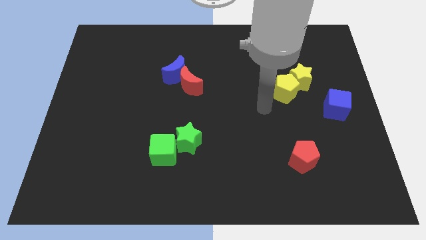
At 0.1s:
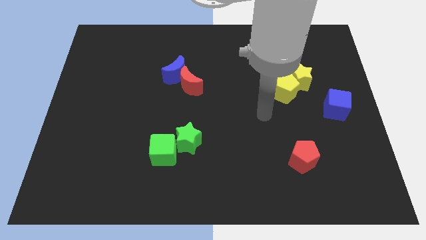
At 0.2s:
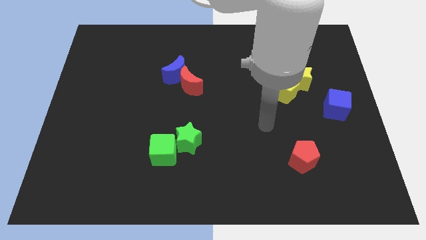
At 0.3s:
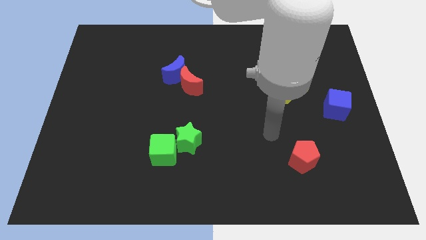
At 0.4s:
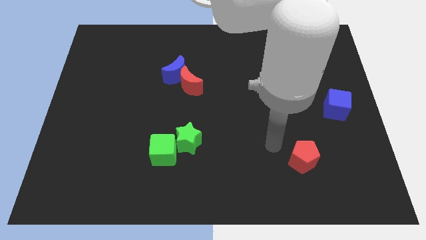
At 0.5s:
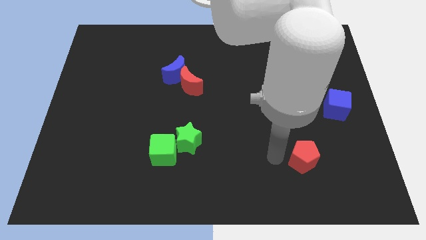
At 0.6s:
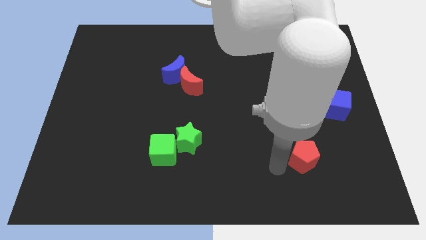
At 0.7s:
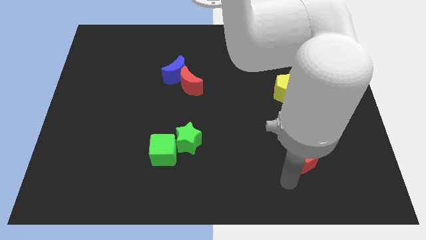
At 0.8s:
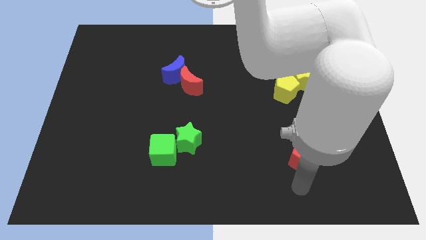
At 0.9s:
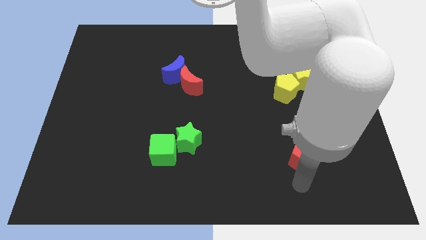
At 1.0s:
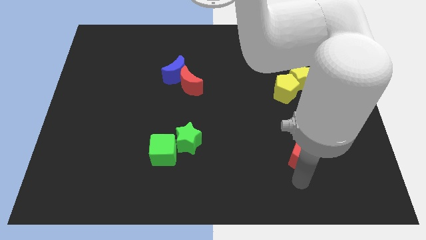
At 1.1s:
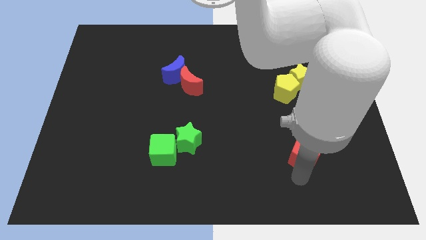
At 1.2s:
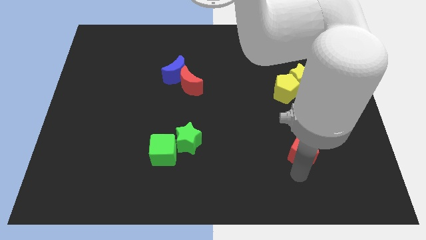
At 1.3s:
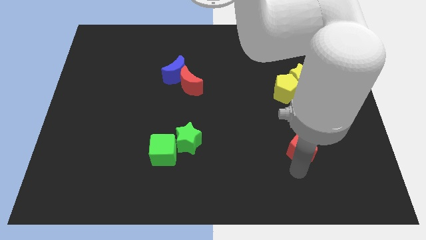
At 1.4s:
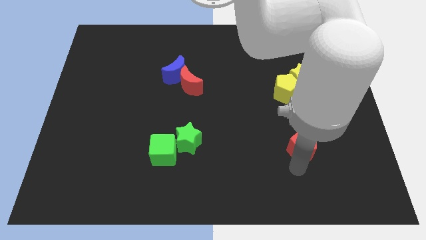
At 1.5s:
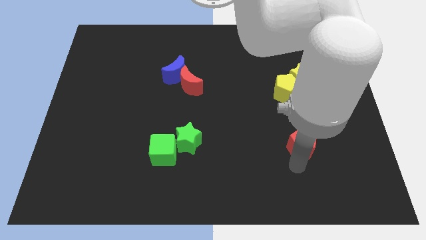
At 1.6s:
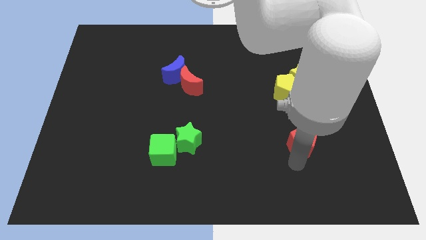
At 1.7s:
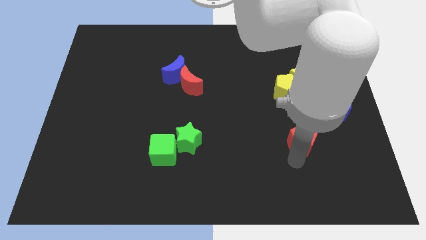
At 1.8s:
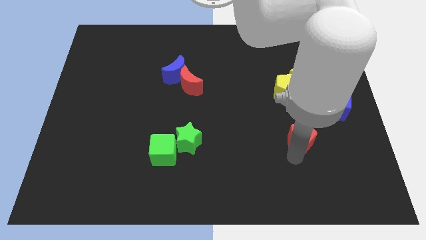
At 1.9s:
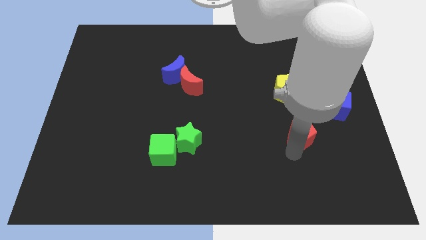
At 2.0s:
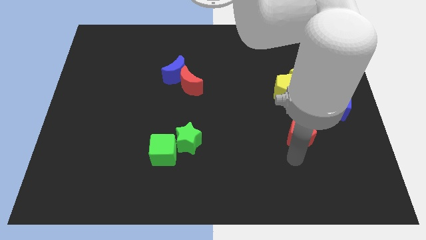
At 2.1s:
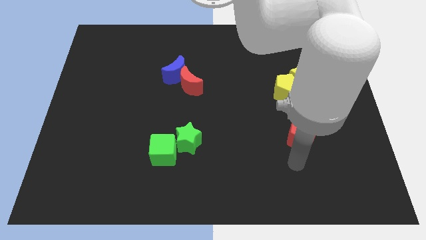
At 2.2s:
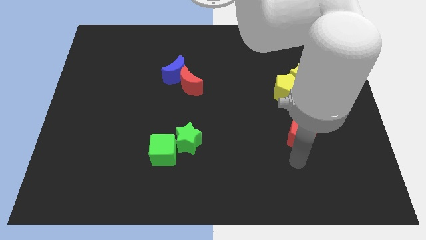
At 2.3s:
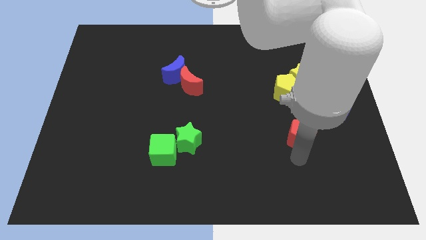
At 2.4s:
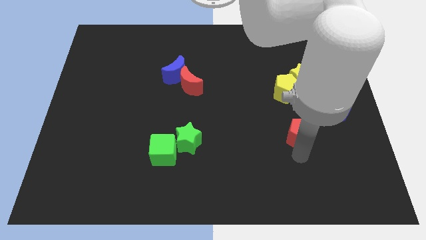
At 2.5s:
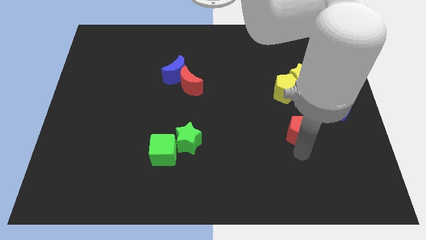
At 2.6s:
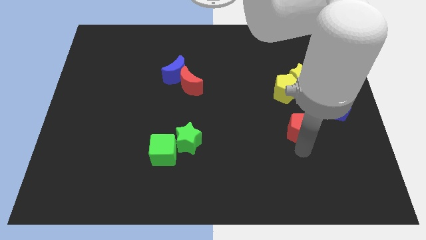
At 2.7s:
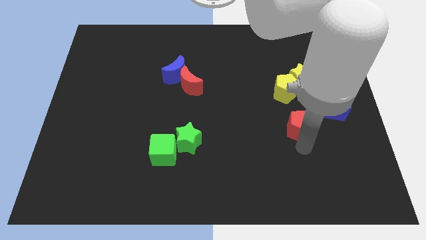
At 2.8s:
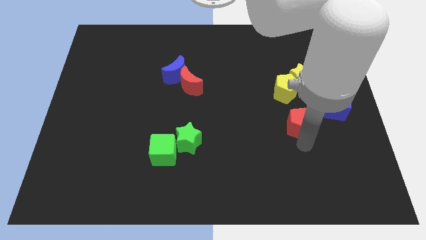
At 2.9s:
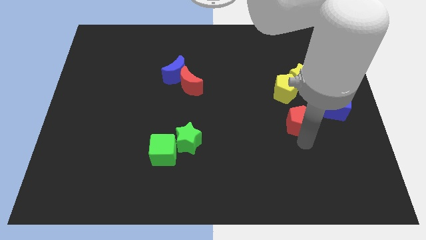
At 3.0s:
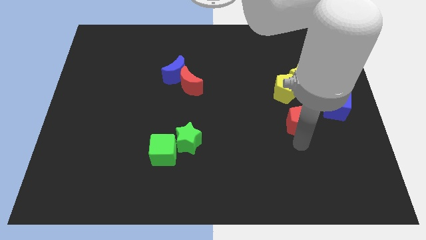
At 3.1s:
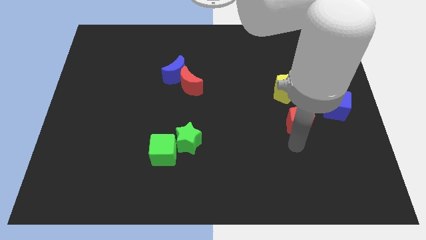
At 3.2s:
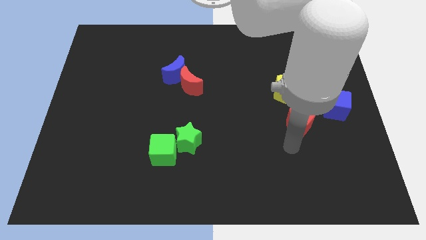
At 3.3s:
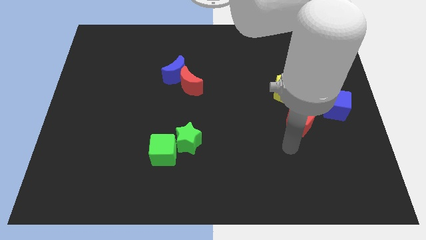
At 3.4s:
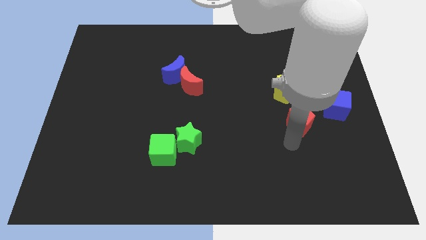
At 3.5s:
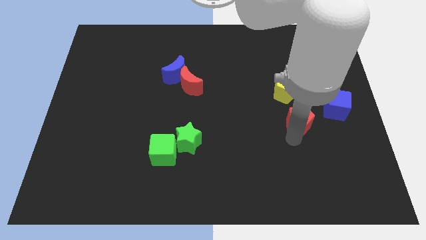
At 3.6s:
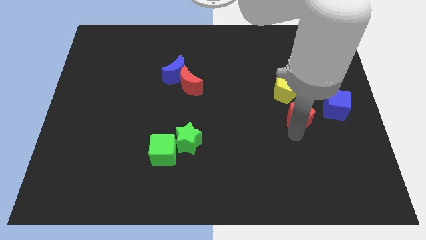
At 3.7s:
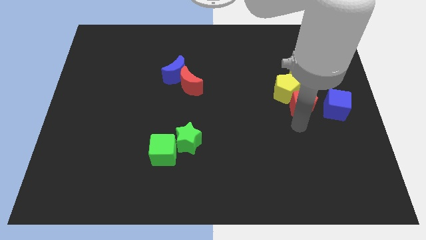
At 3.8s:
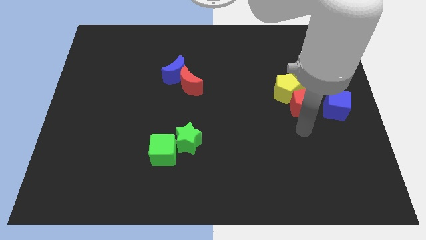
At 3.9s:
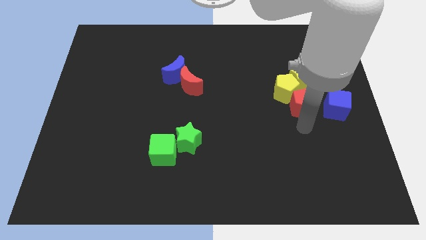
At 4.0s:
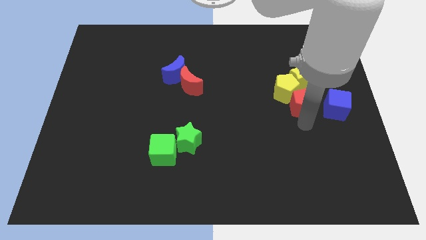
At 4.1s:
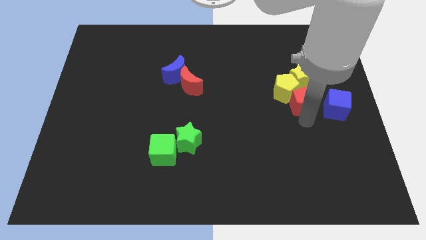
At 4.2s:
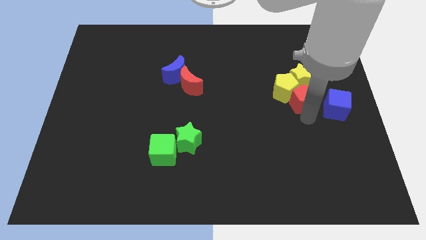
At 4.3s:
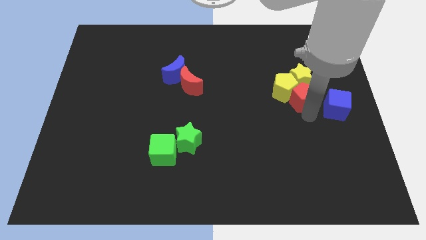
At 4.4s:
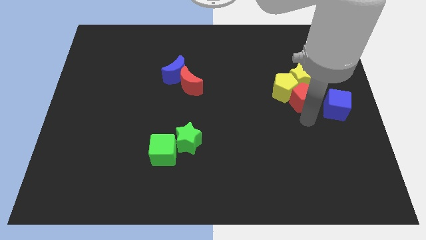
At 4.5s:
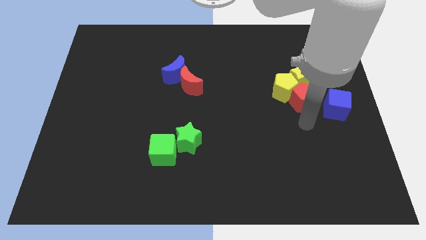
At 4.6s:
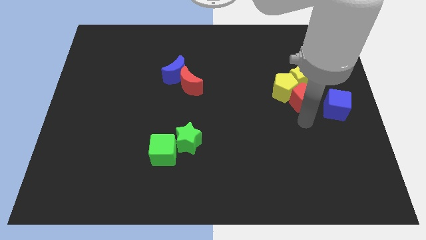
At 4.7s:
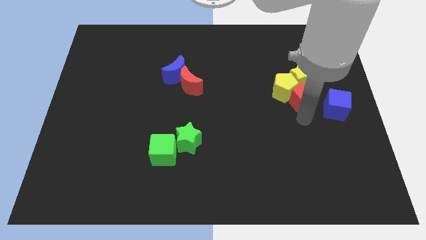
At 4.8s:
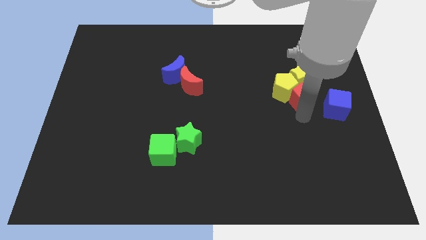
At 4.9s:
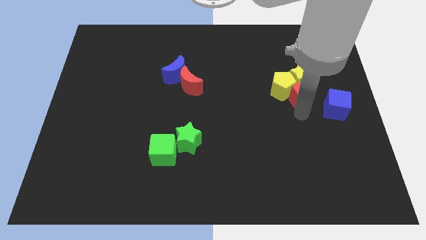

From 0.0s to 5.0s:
slide the red pentagon next to the yellow star

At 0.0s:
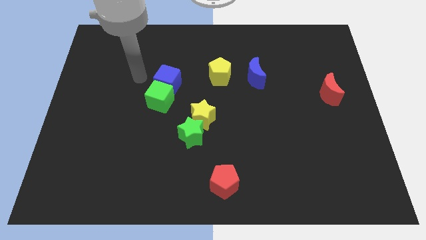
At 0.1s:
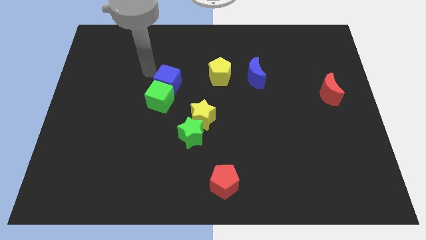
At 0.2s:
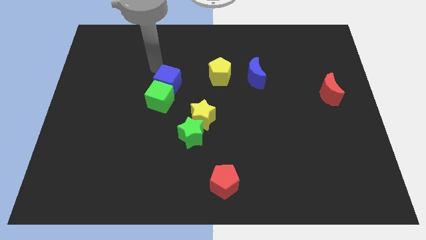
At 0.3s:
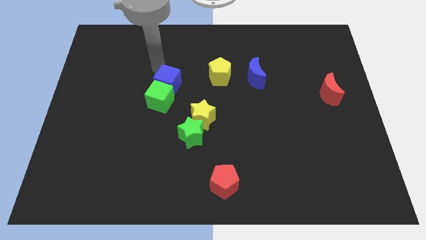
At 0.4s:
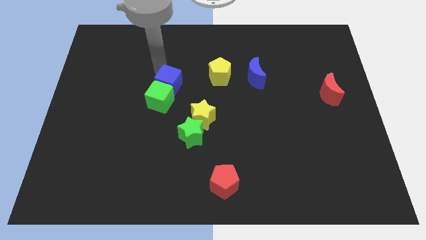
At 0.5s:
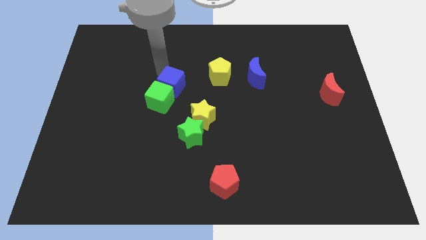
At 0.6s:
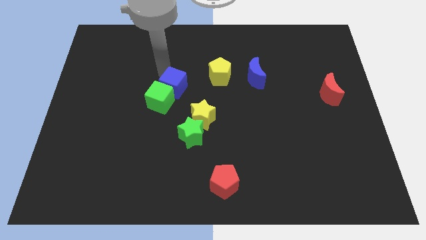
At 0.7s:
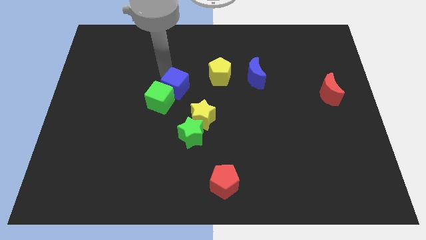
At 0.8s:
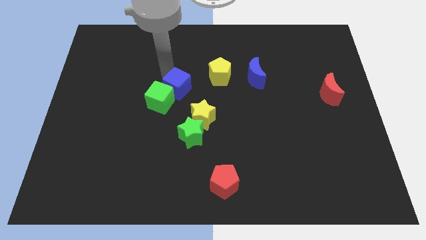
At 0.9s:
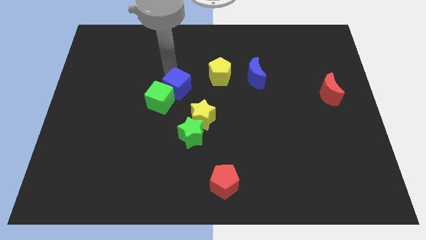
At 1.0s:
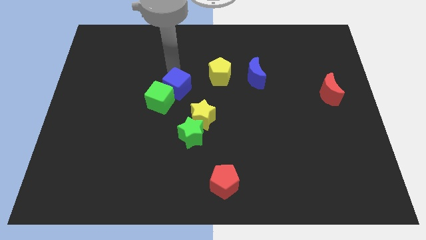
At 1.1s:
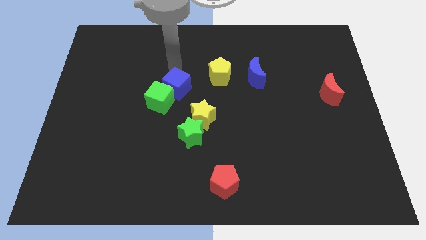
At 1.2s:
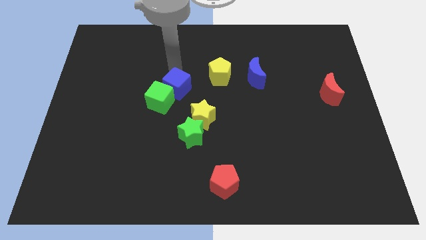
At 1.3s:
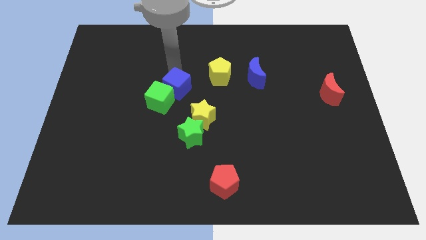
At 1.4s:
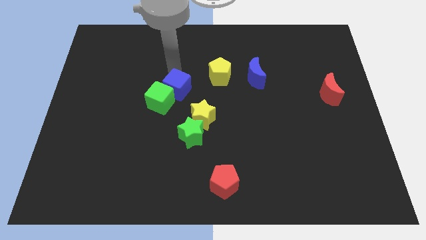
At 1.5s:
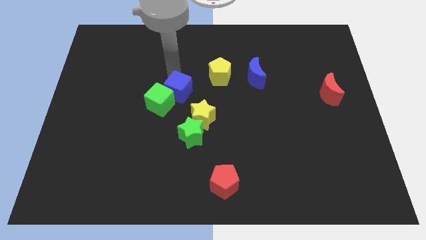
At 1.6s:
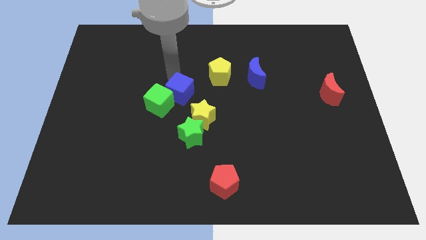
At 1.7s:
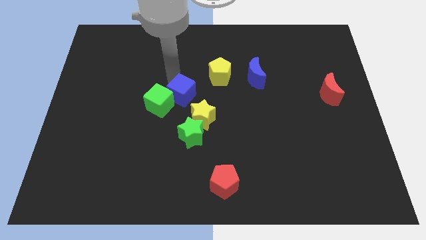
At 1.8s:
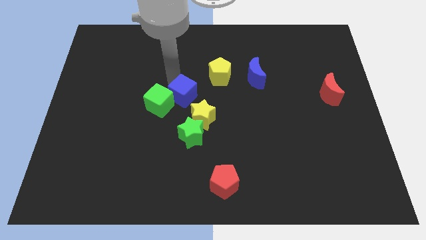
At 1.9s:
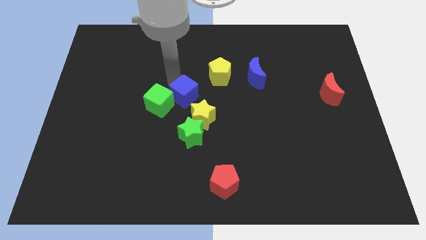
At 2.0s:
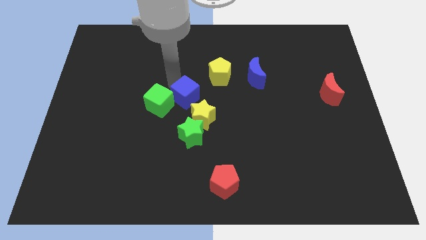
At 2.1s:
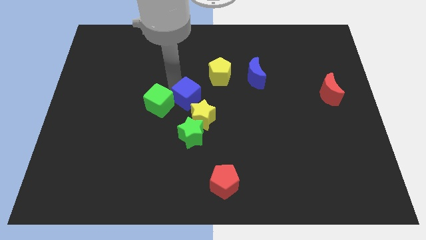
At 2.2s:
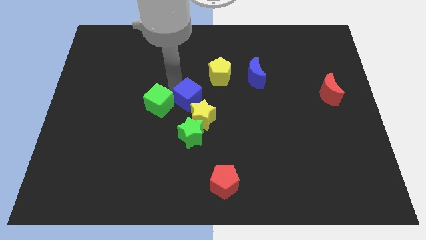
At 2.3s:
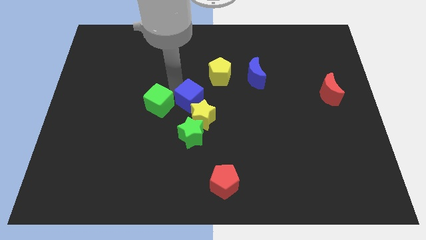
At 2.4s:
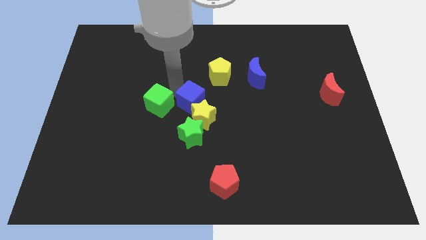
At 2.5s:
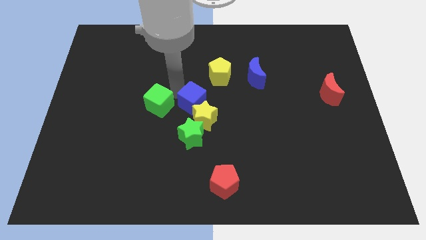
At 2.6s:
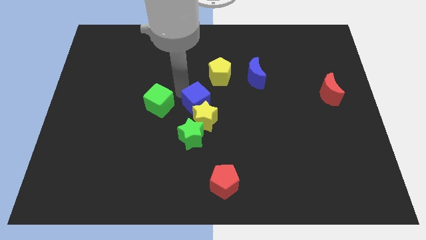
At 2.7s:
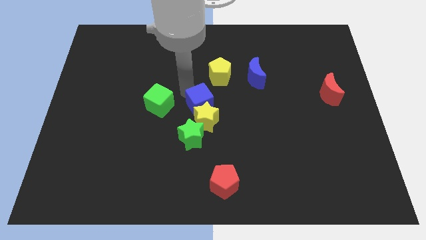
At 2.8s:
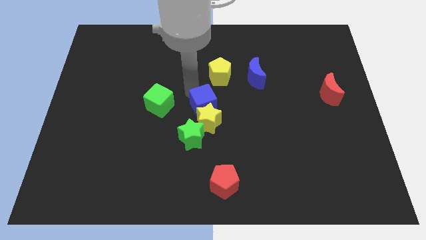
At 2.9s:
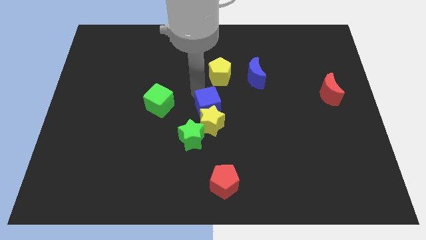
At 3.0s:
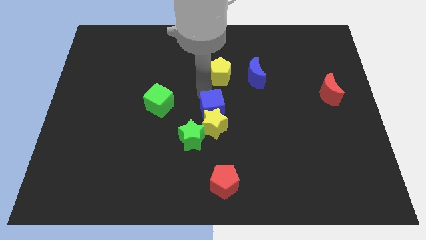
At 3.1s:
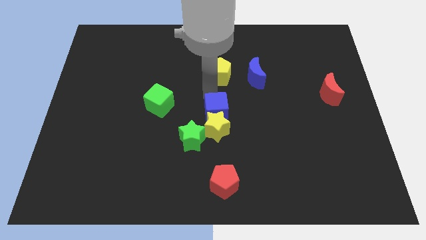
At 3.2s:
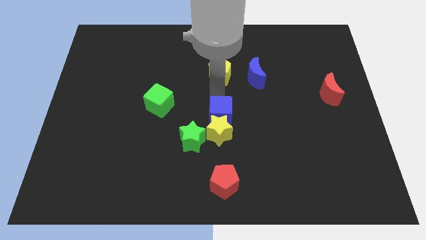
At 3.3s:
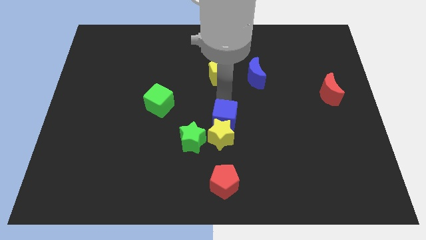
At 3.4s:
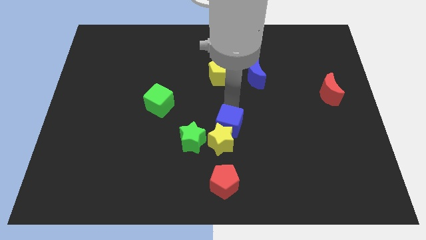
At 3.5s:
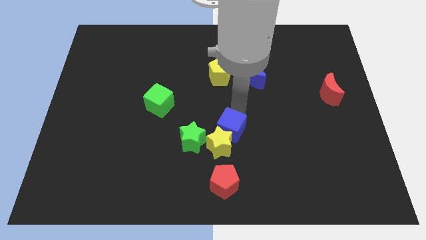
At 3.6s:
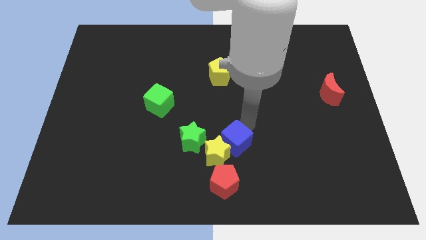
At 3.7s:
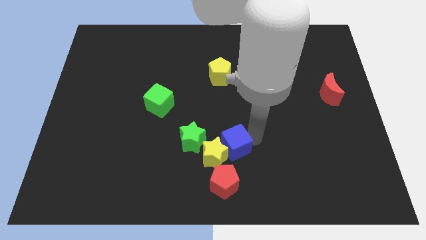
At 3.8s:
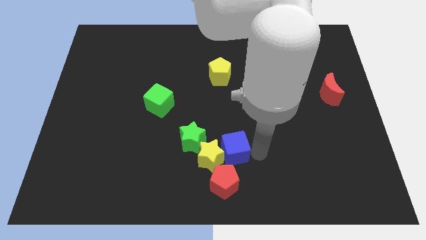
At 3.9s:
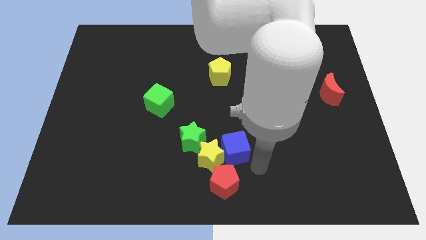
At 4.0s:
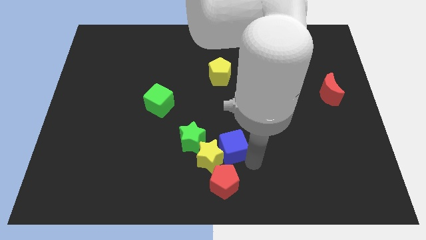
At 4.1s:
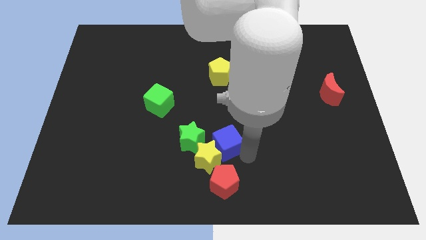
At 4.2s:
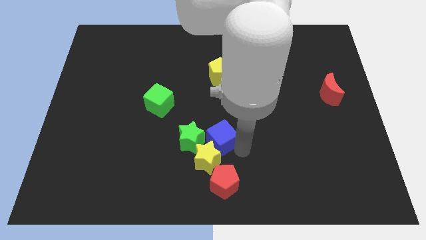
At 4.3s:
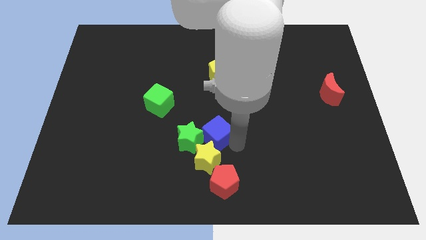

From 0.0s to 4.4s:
put the blue cube to the green star
